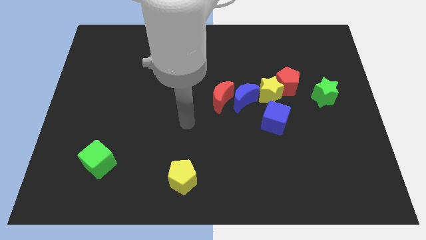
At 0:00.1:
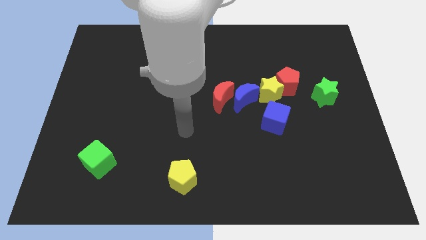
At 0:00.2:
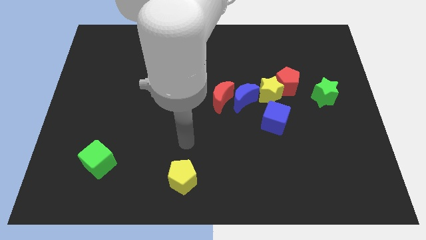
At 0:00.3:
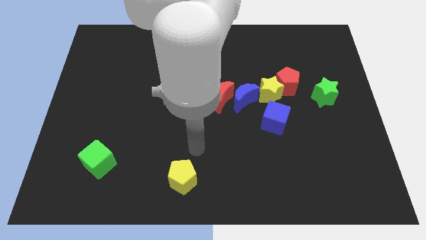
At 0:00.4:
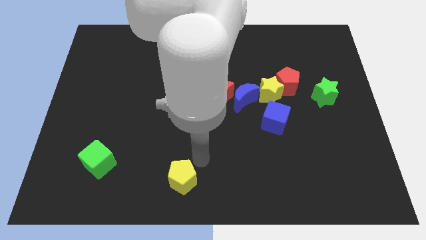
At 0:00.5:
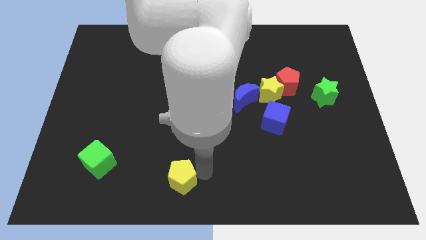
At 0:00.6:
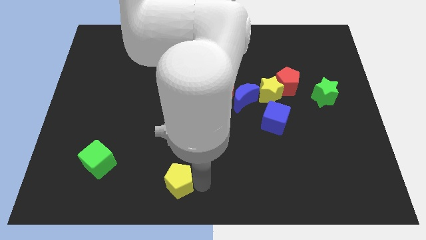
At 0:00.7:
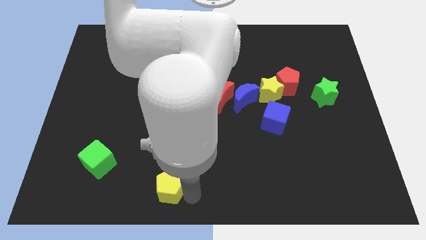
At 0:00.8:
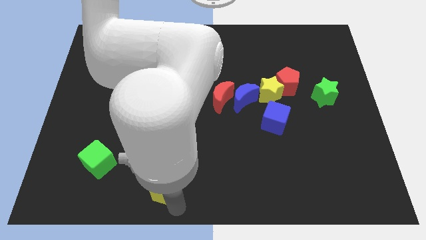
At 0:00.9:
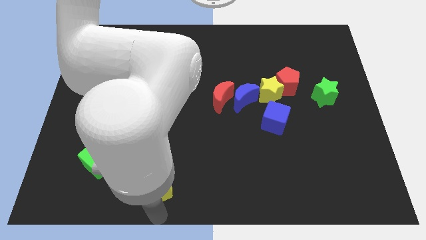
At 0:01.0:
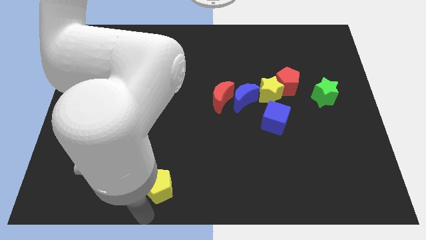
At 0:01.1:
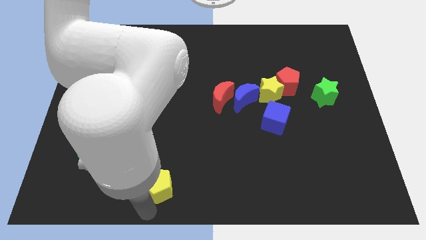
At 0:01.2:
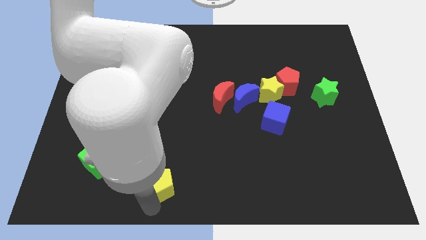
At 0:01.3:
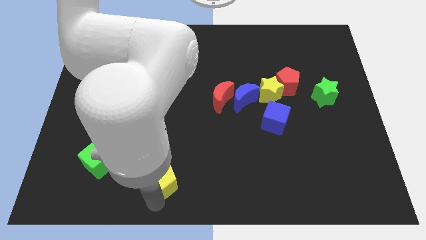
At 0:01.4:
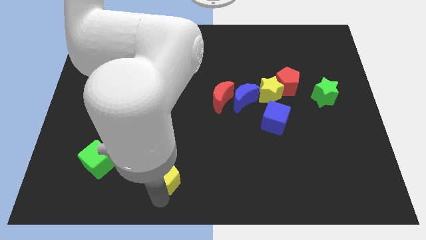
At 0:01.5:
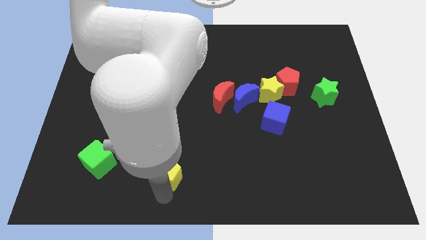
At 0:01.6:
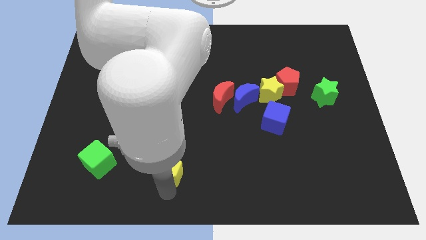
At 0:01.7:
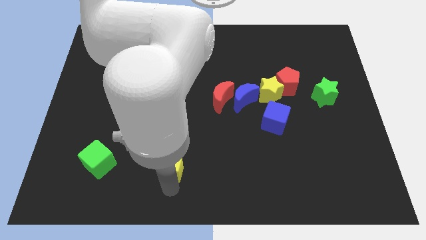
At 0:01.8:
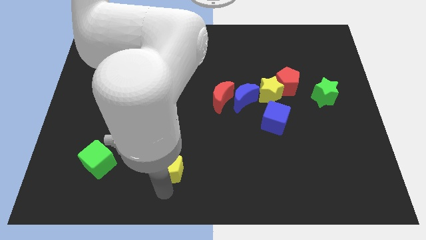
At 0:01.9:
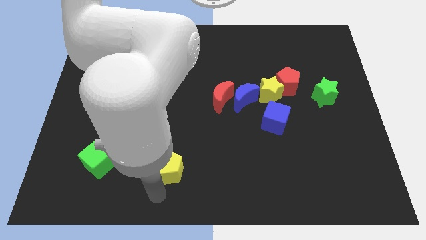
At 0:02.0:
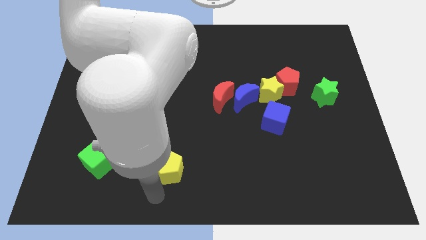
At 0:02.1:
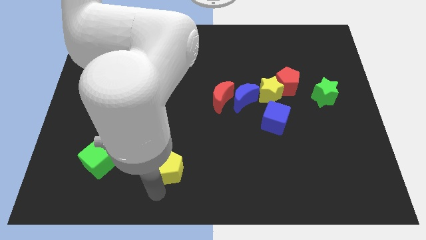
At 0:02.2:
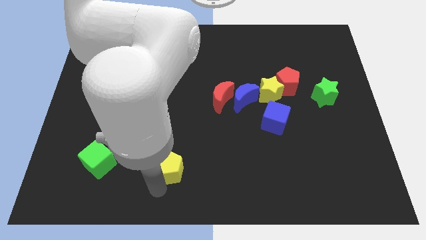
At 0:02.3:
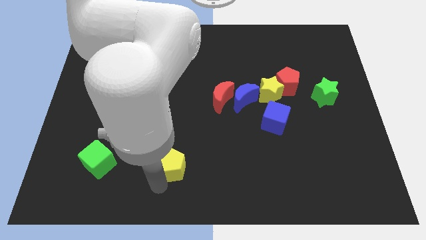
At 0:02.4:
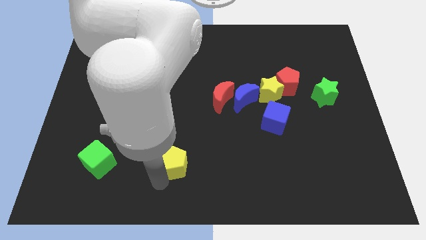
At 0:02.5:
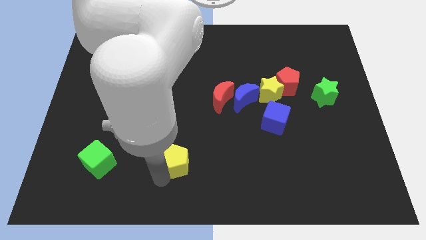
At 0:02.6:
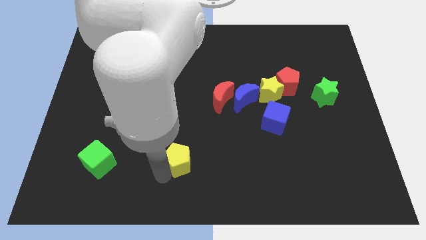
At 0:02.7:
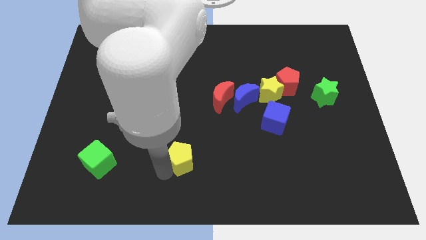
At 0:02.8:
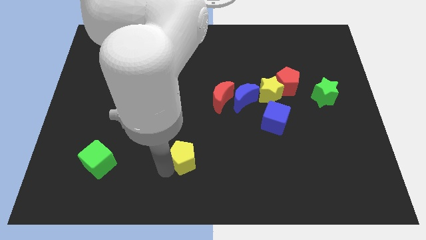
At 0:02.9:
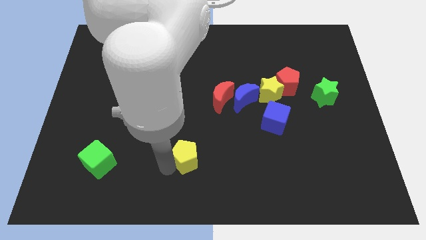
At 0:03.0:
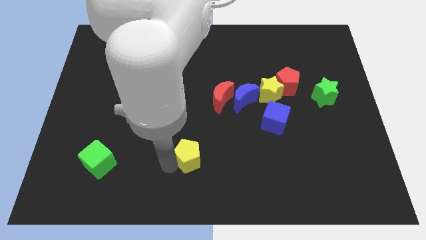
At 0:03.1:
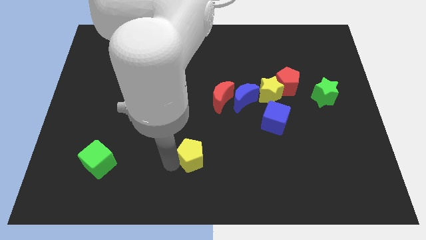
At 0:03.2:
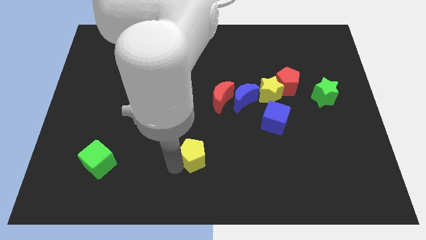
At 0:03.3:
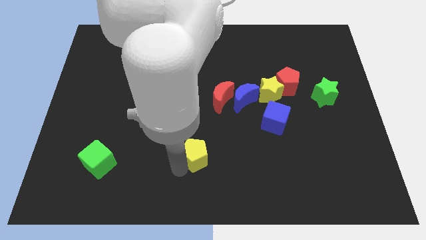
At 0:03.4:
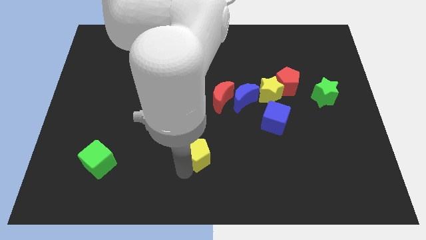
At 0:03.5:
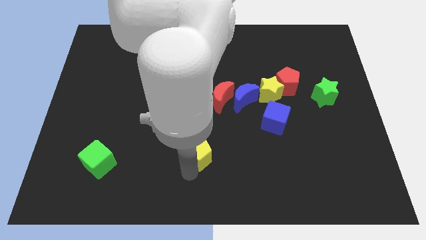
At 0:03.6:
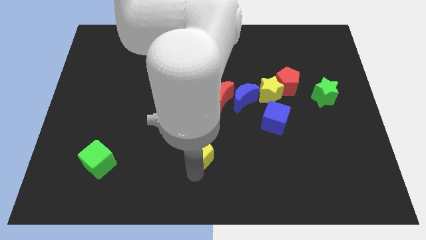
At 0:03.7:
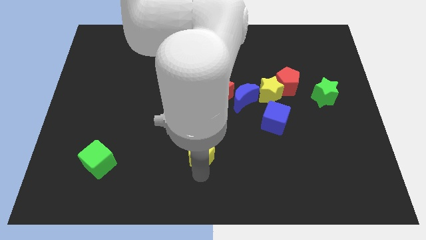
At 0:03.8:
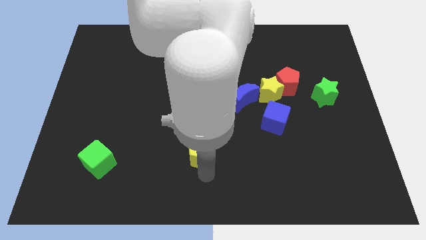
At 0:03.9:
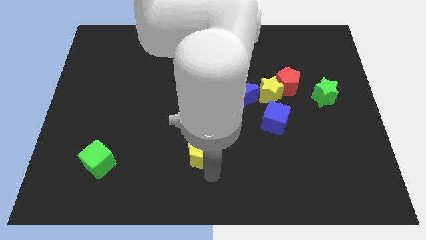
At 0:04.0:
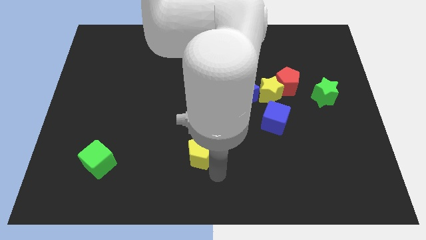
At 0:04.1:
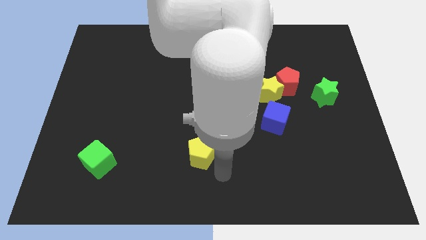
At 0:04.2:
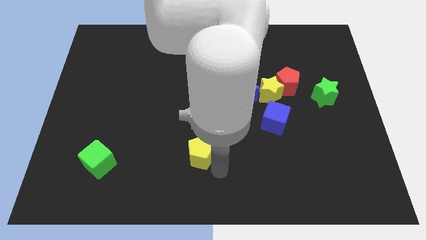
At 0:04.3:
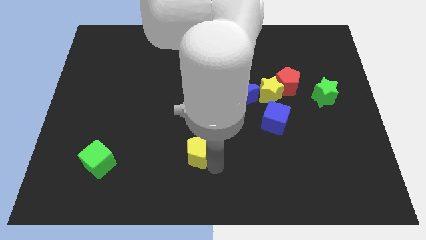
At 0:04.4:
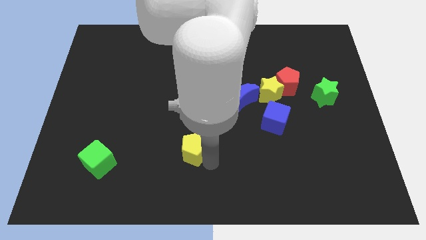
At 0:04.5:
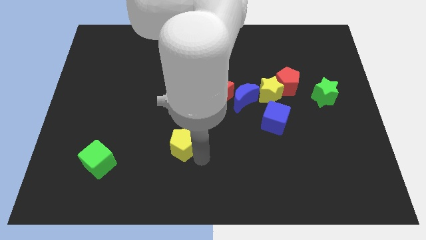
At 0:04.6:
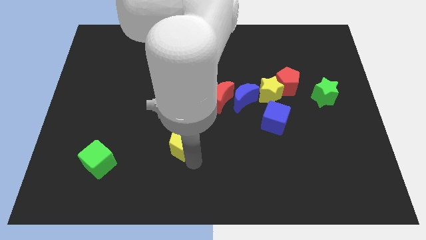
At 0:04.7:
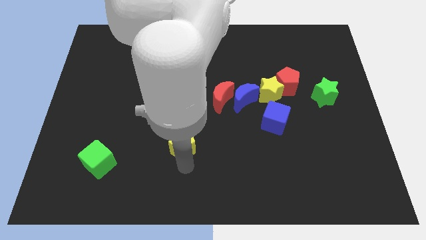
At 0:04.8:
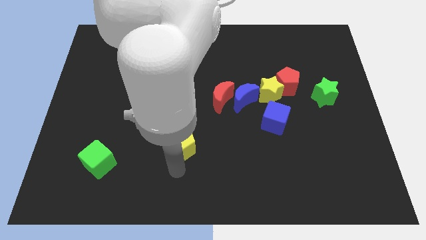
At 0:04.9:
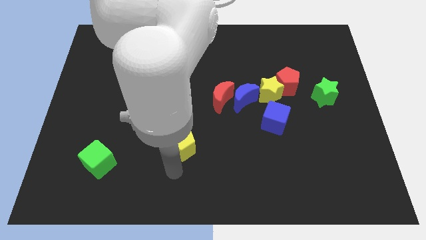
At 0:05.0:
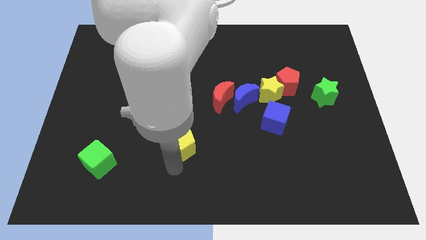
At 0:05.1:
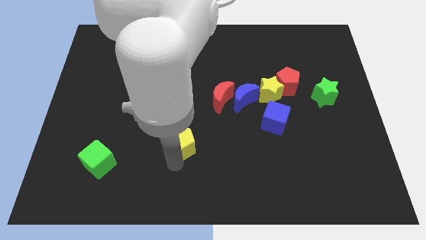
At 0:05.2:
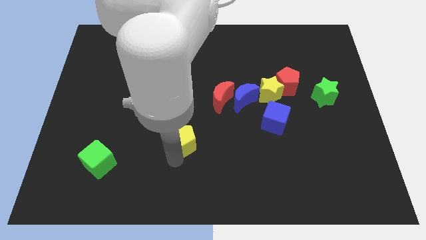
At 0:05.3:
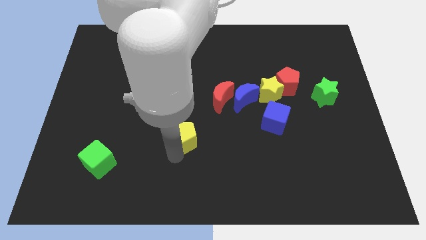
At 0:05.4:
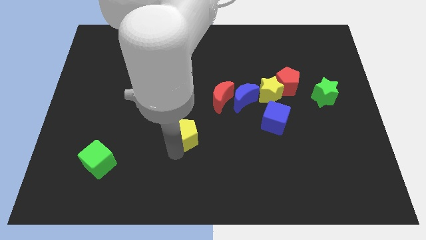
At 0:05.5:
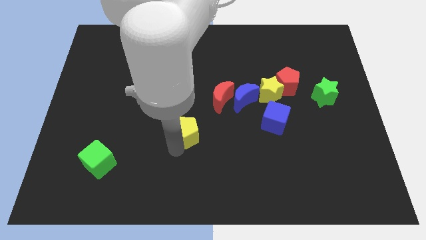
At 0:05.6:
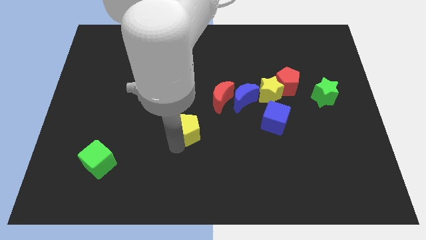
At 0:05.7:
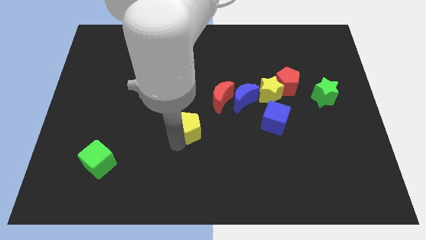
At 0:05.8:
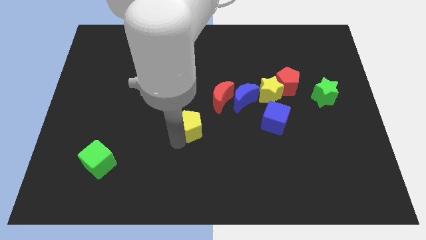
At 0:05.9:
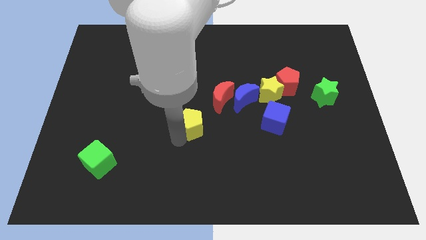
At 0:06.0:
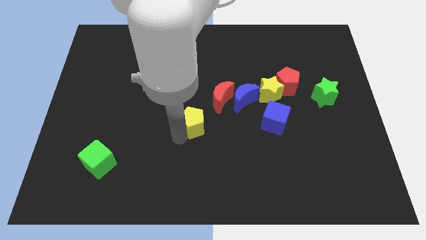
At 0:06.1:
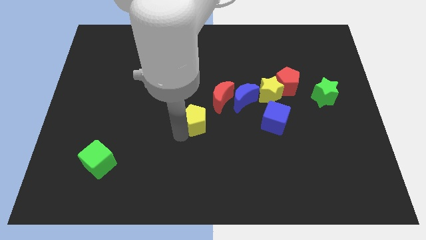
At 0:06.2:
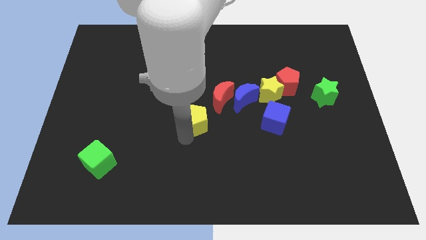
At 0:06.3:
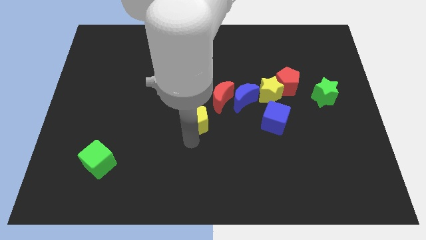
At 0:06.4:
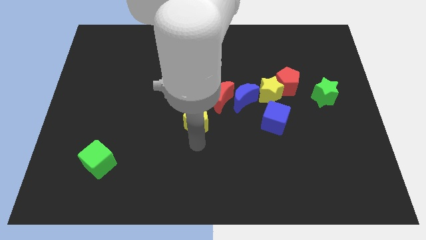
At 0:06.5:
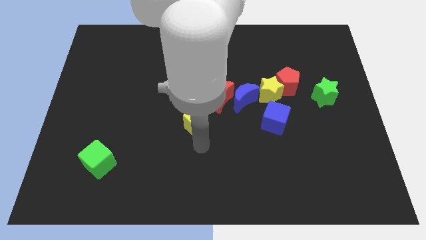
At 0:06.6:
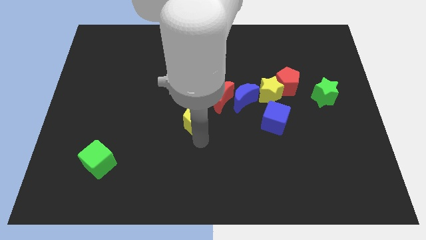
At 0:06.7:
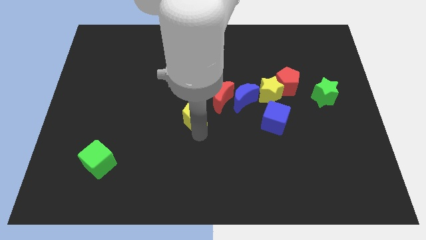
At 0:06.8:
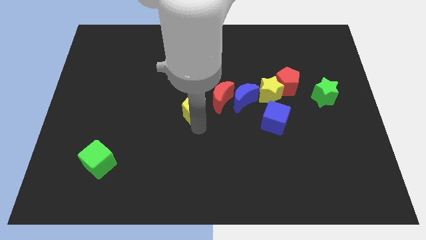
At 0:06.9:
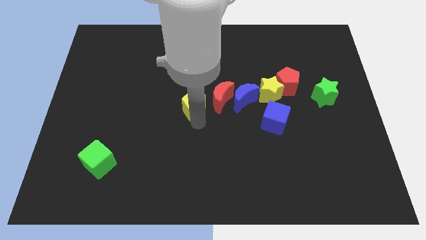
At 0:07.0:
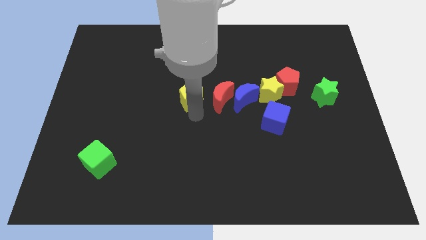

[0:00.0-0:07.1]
put the yellow pentagon to the top left of the red moon

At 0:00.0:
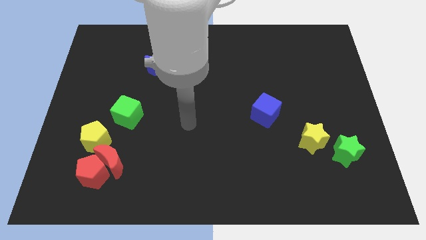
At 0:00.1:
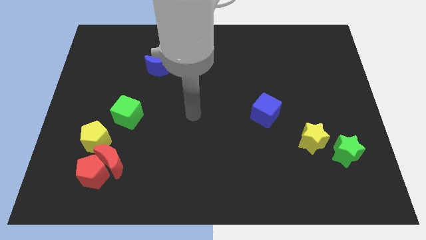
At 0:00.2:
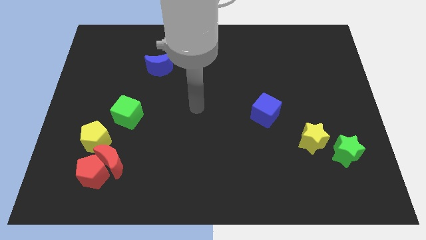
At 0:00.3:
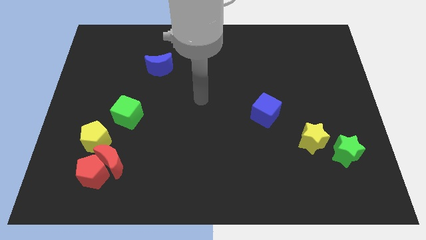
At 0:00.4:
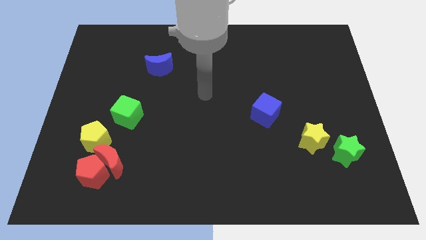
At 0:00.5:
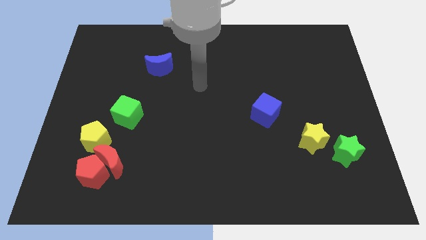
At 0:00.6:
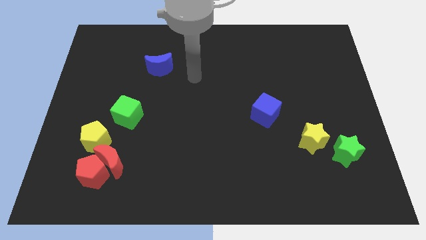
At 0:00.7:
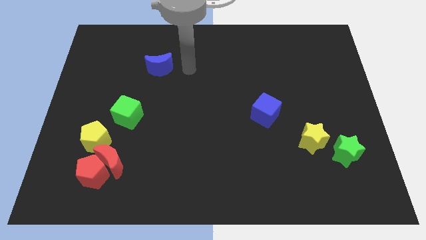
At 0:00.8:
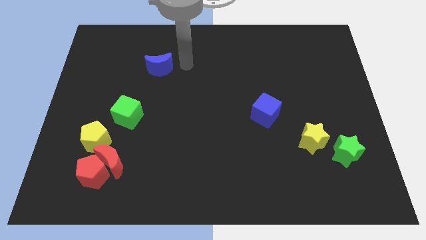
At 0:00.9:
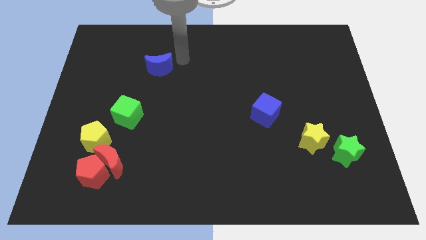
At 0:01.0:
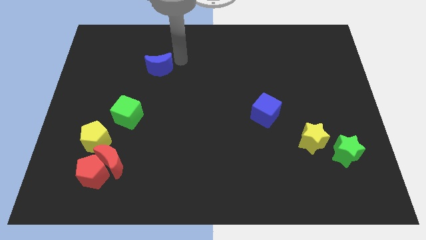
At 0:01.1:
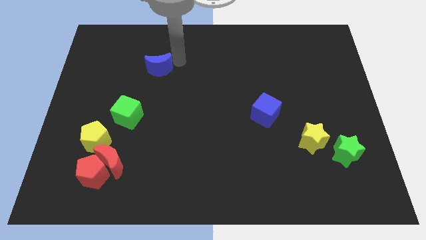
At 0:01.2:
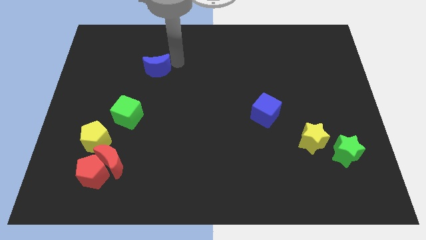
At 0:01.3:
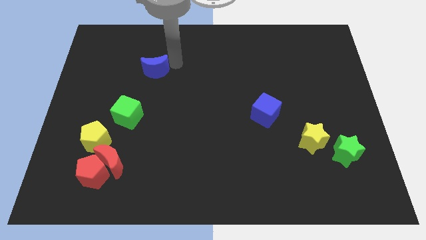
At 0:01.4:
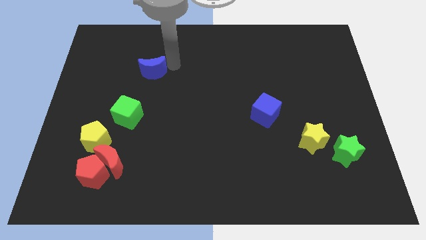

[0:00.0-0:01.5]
move the blue moon to the top of the green cube
